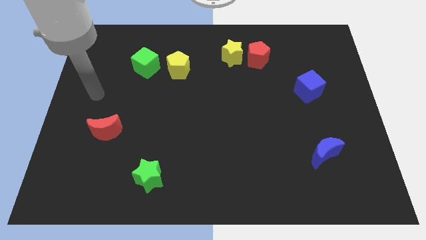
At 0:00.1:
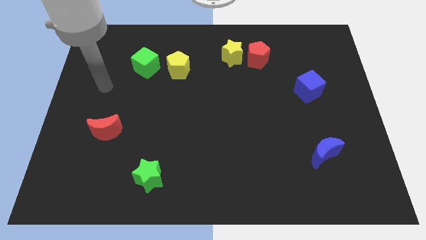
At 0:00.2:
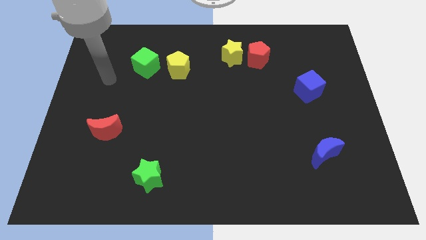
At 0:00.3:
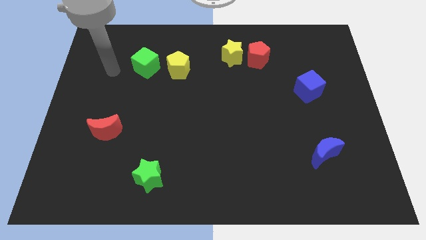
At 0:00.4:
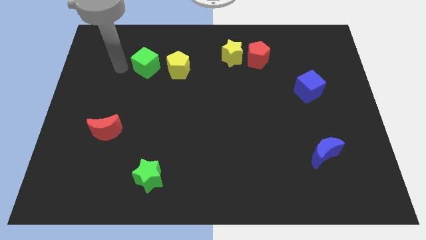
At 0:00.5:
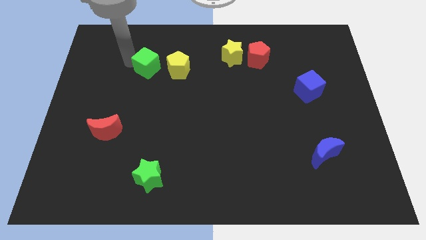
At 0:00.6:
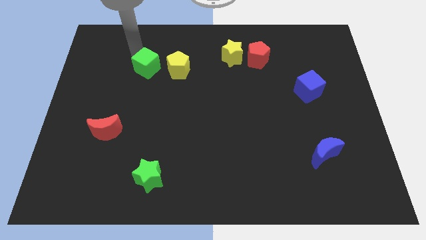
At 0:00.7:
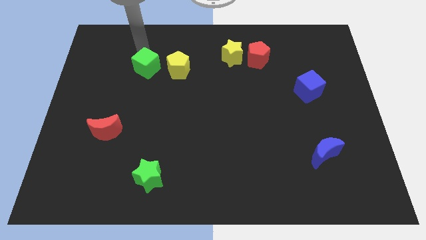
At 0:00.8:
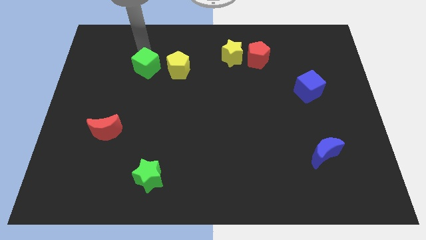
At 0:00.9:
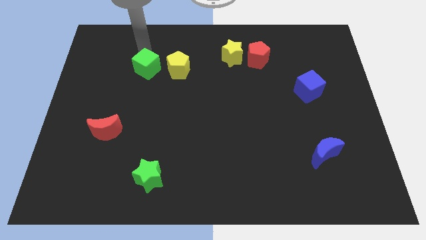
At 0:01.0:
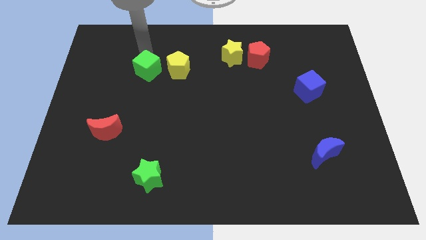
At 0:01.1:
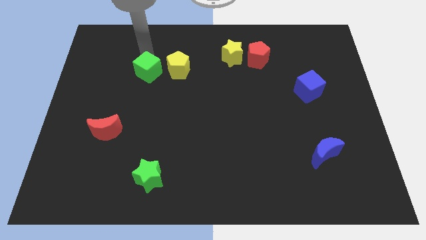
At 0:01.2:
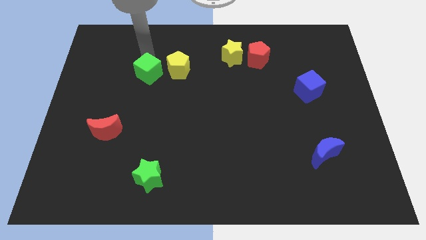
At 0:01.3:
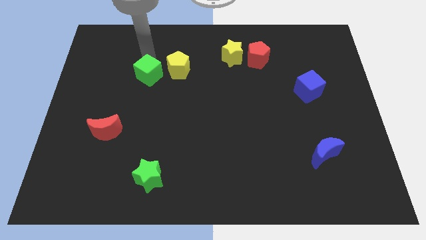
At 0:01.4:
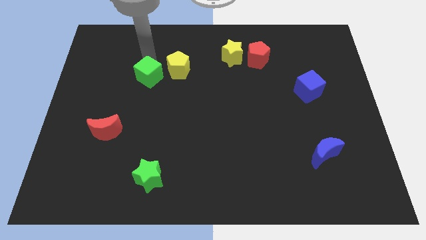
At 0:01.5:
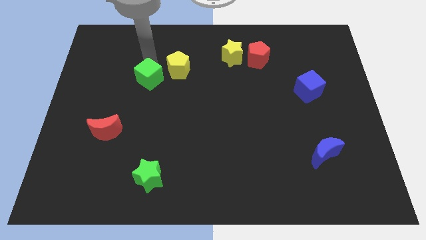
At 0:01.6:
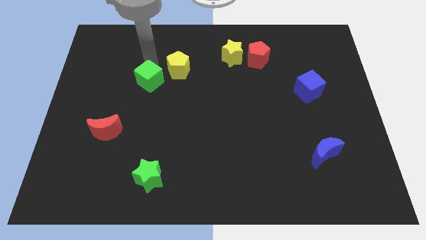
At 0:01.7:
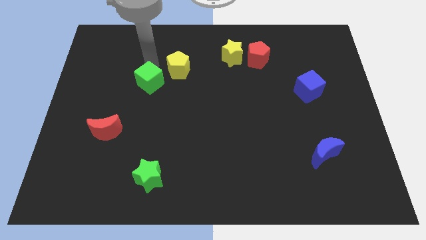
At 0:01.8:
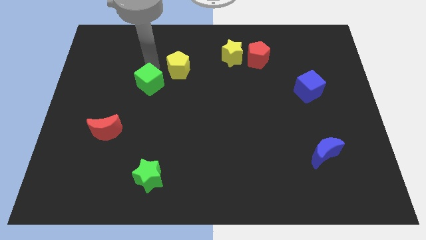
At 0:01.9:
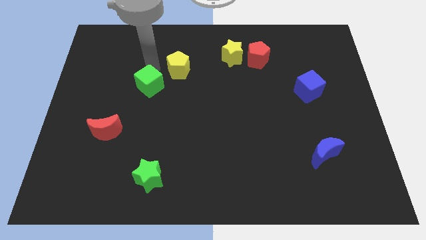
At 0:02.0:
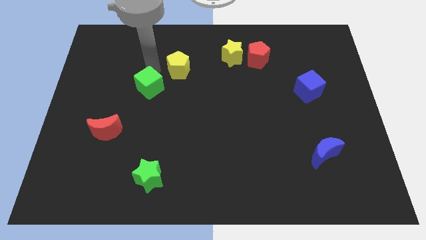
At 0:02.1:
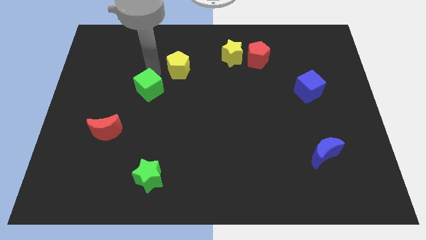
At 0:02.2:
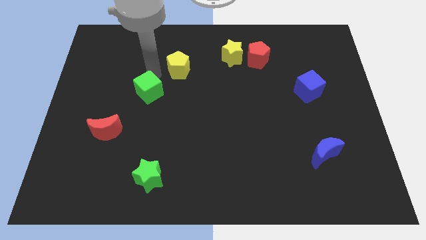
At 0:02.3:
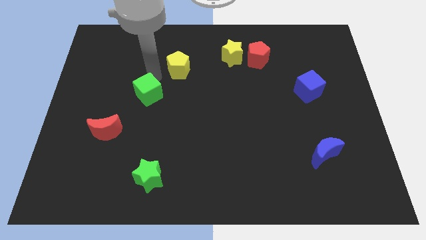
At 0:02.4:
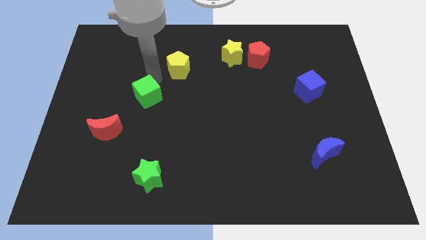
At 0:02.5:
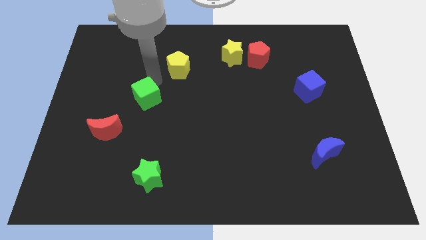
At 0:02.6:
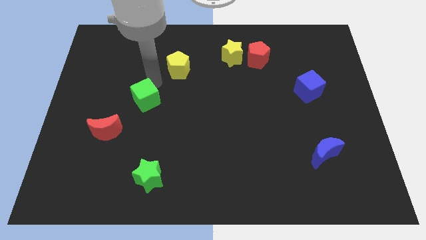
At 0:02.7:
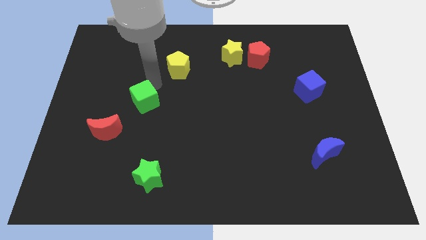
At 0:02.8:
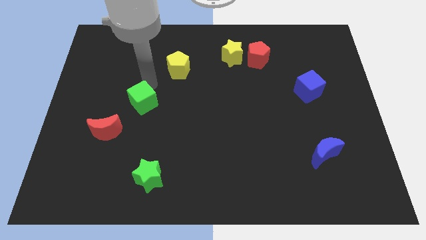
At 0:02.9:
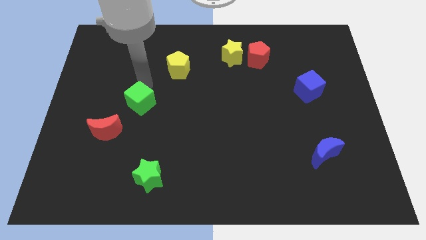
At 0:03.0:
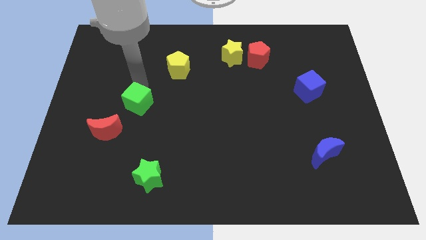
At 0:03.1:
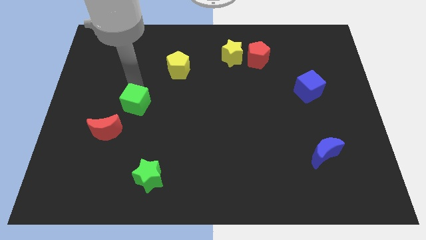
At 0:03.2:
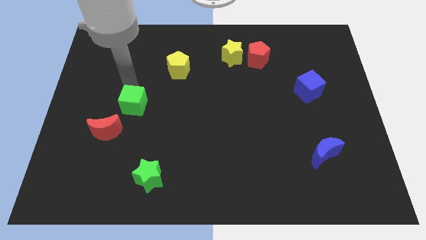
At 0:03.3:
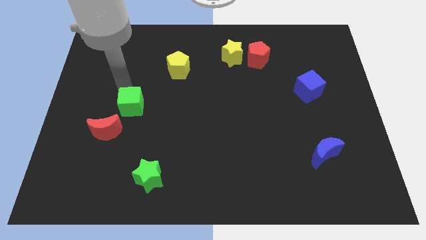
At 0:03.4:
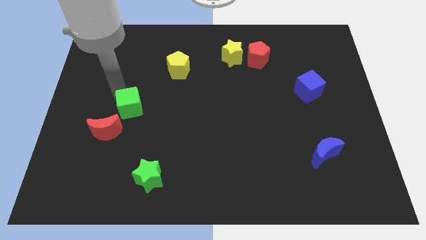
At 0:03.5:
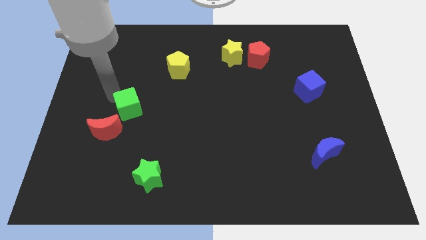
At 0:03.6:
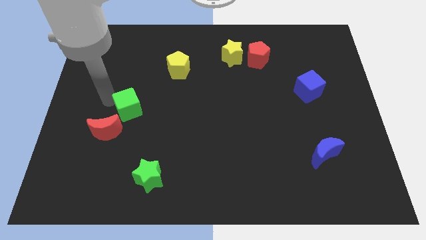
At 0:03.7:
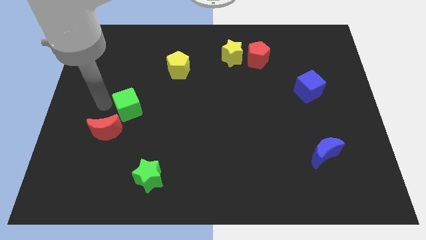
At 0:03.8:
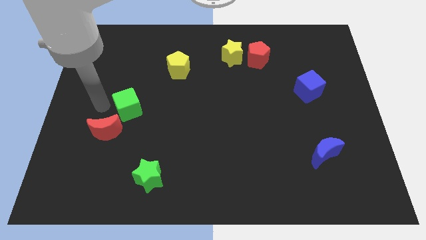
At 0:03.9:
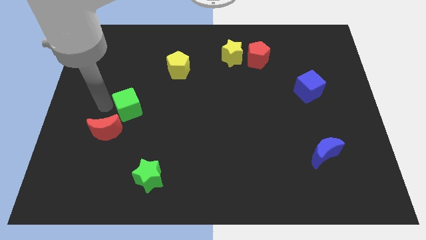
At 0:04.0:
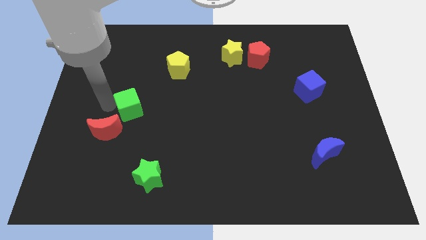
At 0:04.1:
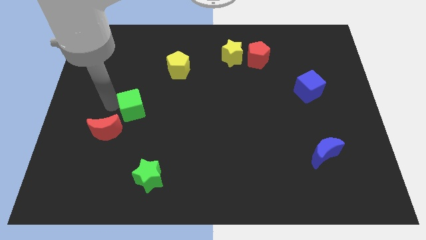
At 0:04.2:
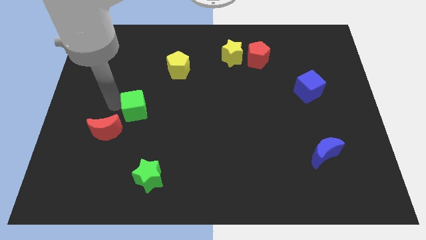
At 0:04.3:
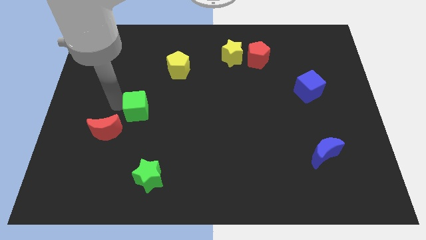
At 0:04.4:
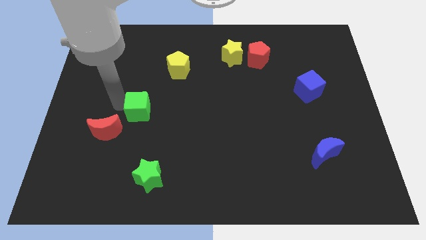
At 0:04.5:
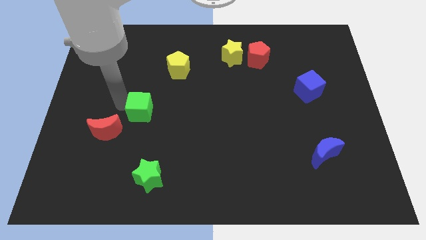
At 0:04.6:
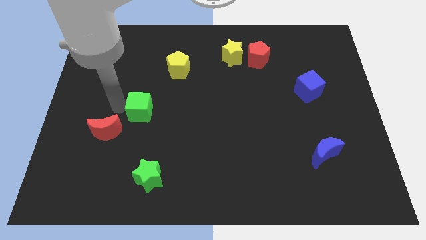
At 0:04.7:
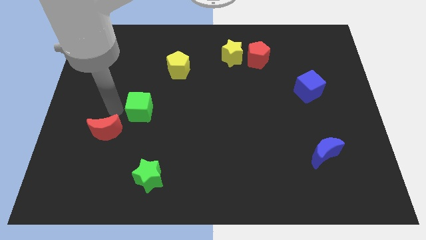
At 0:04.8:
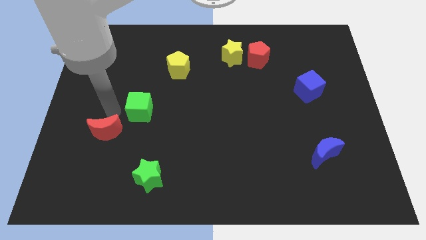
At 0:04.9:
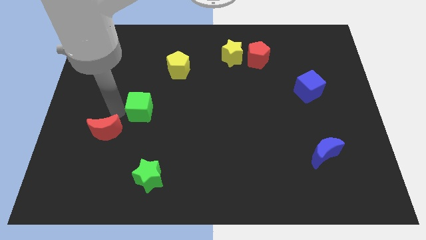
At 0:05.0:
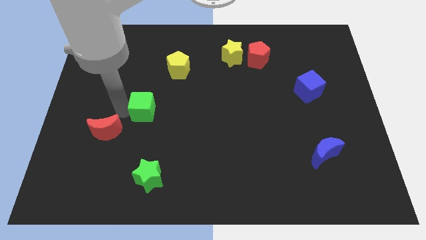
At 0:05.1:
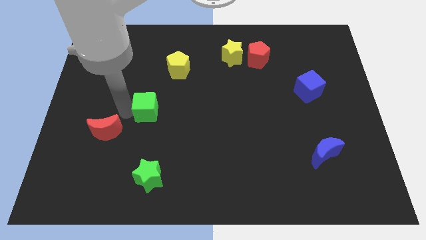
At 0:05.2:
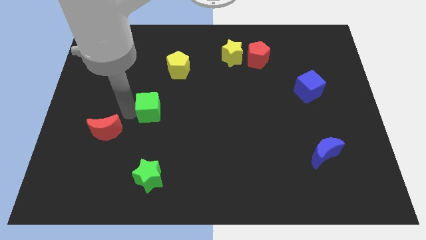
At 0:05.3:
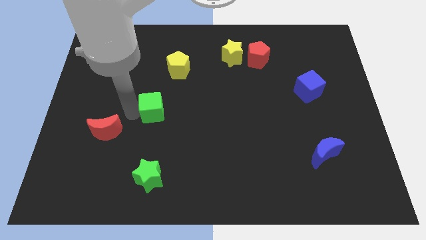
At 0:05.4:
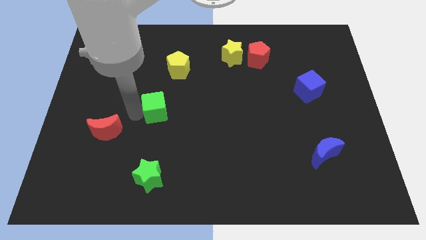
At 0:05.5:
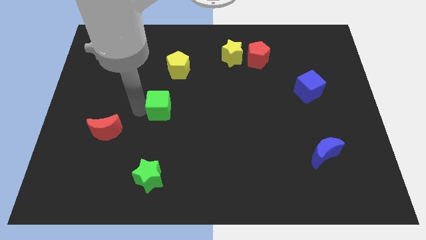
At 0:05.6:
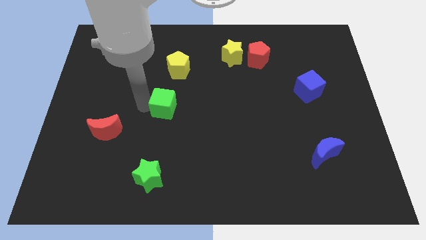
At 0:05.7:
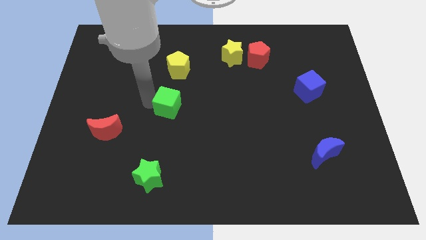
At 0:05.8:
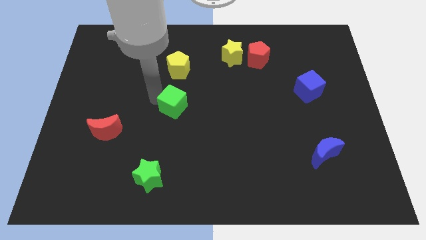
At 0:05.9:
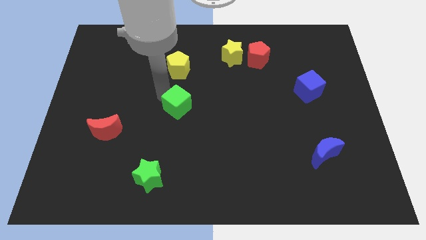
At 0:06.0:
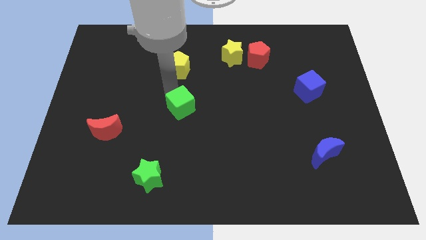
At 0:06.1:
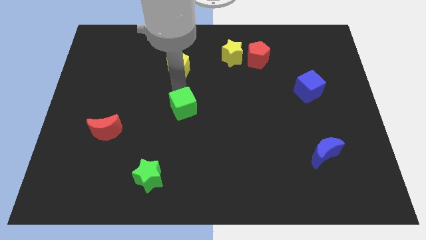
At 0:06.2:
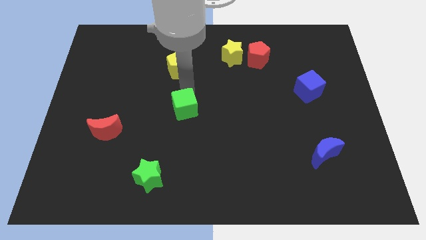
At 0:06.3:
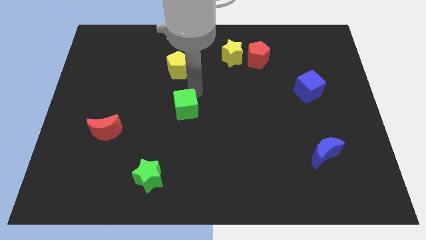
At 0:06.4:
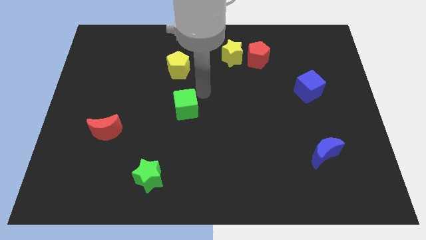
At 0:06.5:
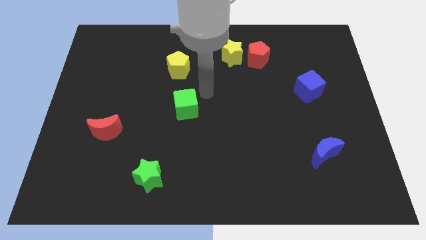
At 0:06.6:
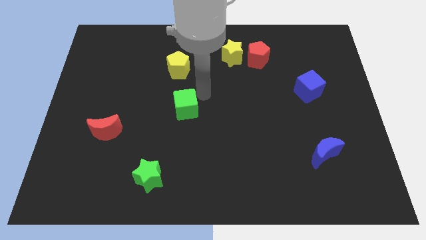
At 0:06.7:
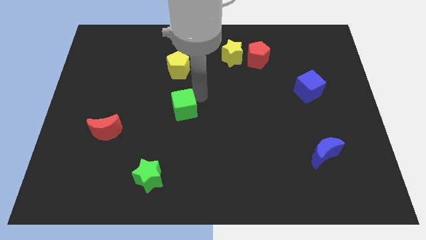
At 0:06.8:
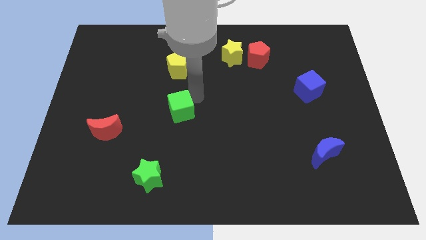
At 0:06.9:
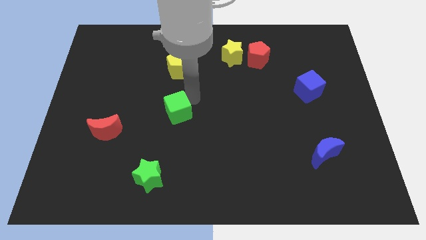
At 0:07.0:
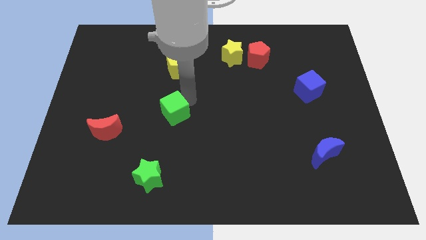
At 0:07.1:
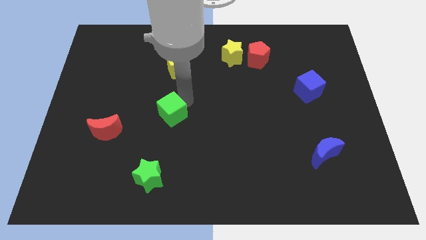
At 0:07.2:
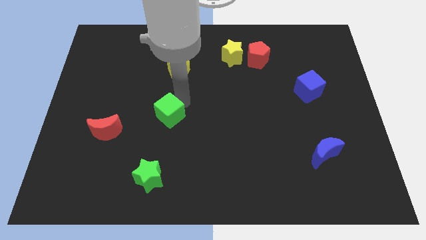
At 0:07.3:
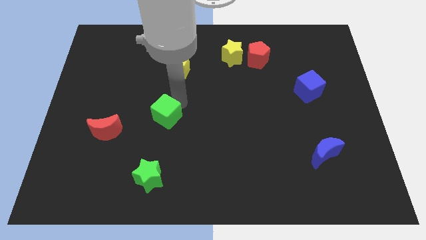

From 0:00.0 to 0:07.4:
push the green cube to the right of the red moon

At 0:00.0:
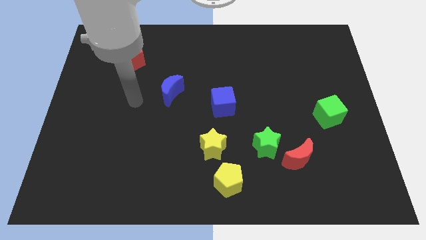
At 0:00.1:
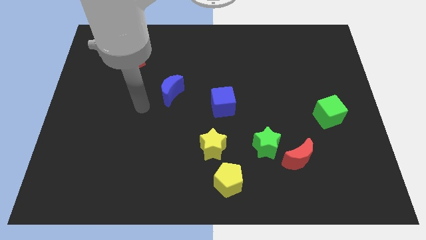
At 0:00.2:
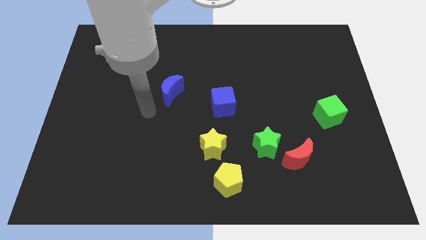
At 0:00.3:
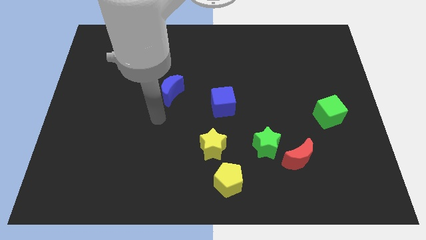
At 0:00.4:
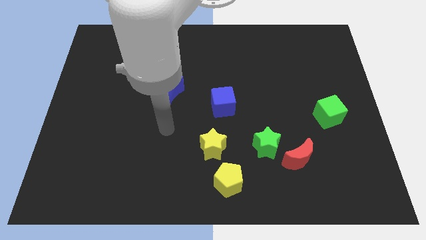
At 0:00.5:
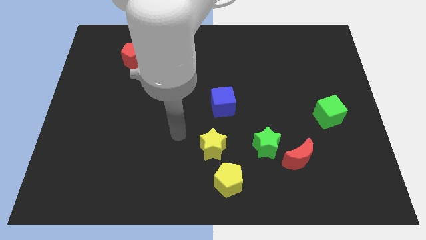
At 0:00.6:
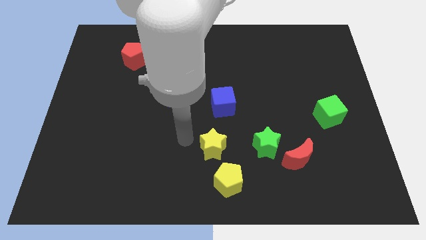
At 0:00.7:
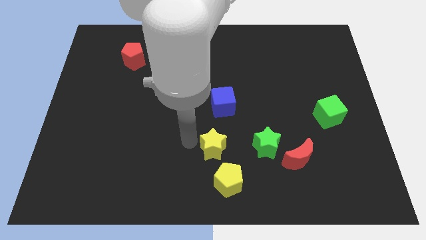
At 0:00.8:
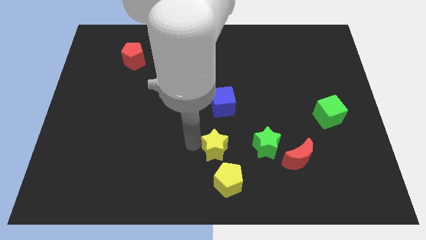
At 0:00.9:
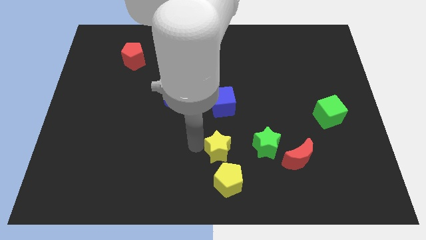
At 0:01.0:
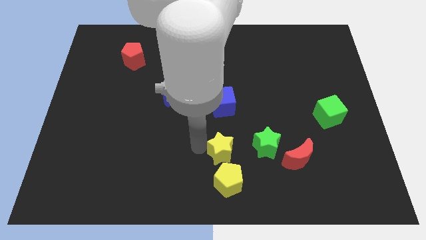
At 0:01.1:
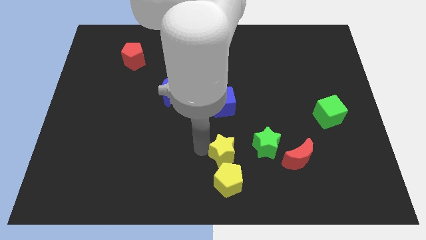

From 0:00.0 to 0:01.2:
push the yellow star left of the red moon
